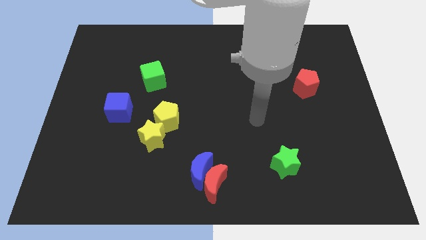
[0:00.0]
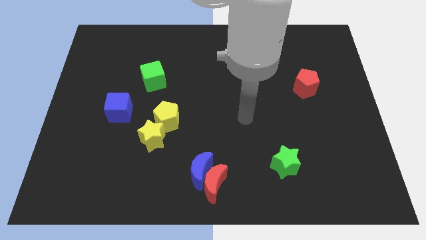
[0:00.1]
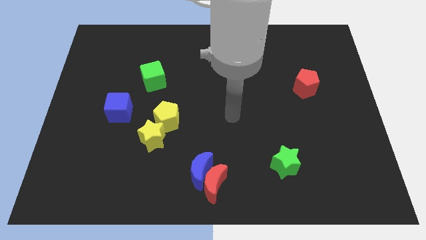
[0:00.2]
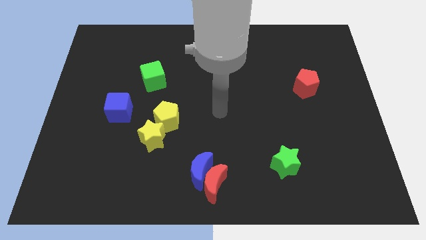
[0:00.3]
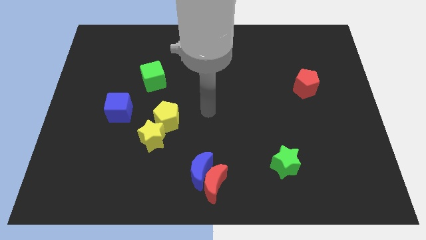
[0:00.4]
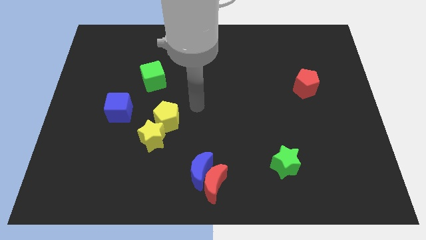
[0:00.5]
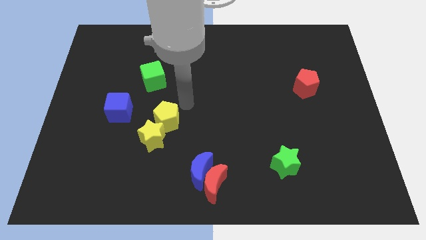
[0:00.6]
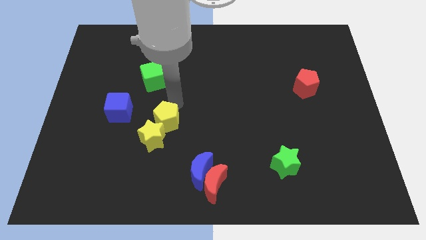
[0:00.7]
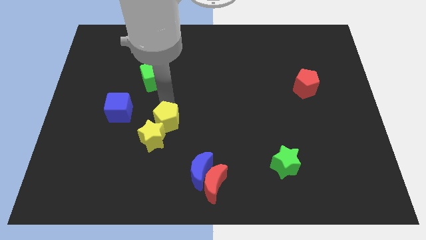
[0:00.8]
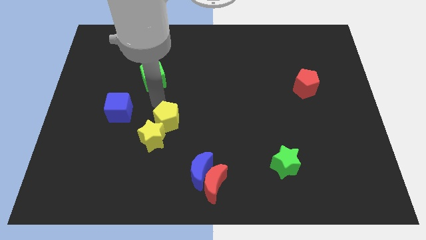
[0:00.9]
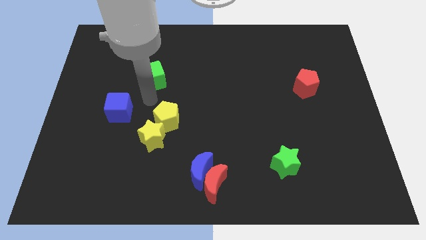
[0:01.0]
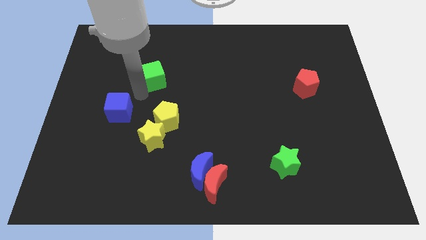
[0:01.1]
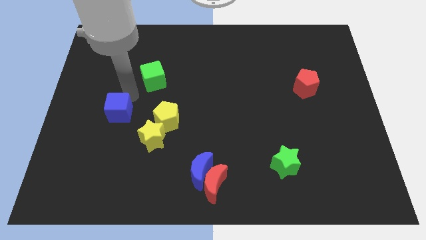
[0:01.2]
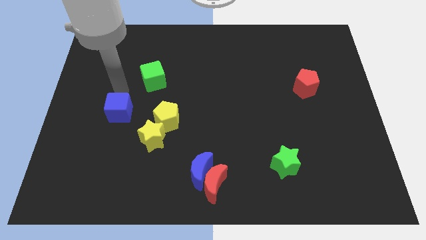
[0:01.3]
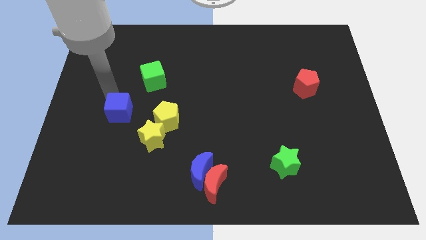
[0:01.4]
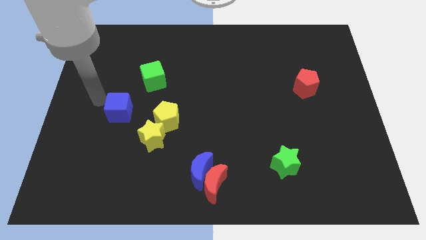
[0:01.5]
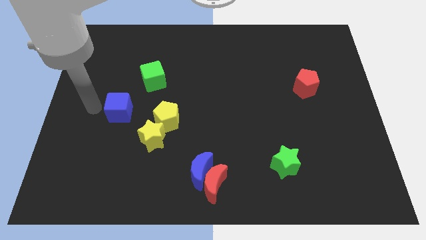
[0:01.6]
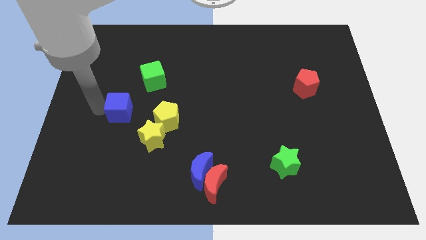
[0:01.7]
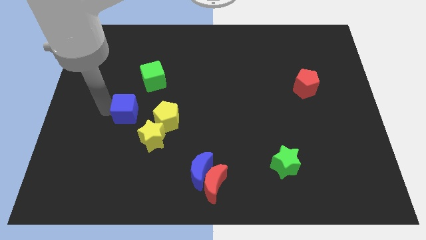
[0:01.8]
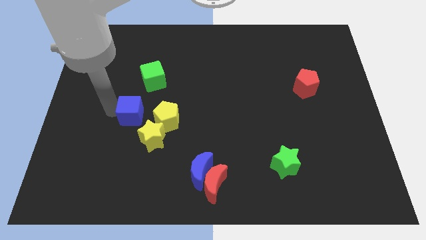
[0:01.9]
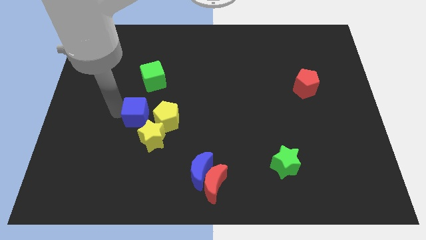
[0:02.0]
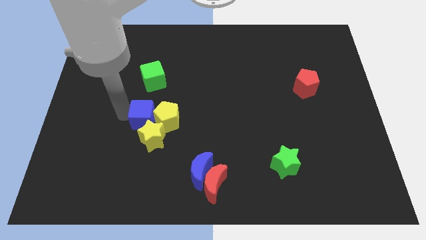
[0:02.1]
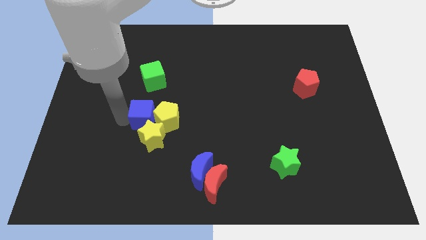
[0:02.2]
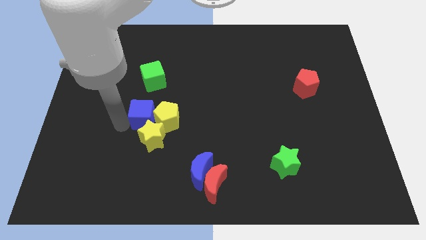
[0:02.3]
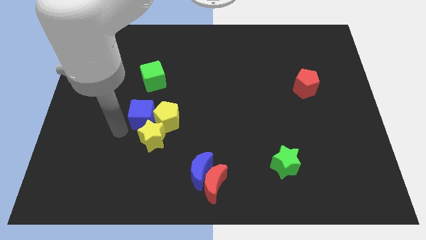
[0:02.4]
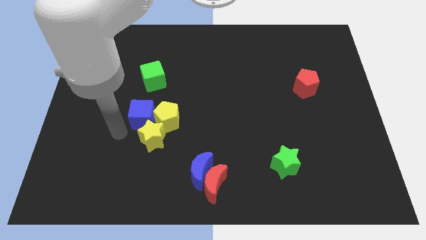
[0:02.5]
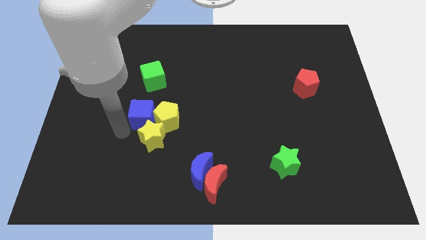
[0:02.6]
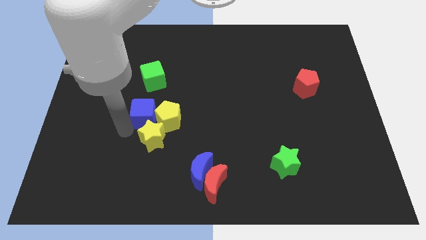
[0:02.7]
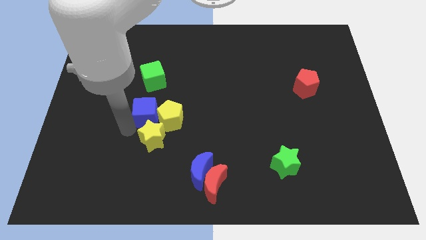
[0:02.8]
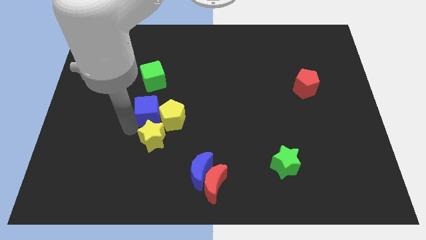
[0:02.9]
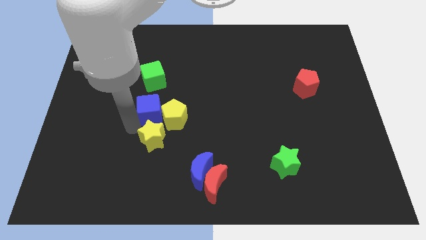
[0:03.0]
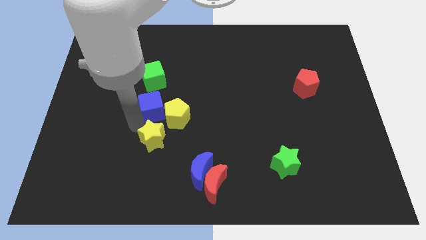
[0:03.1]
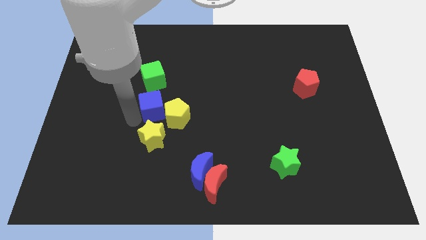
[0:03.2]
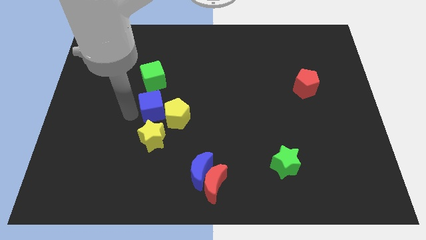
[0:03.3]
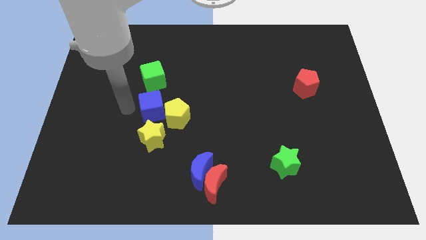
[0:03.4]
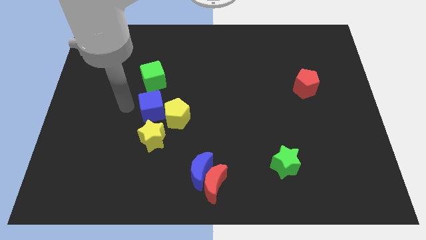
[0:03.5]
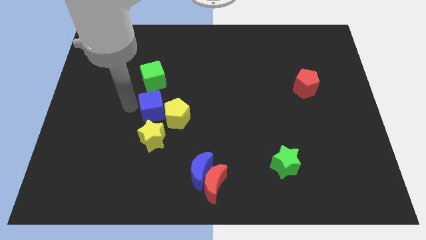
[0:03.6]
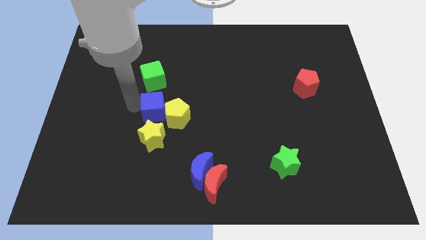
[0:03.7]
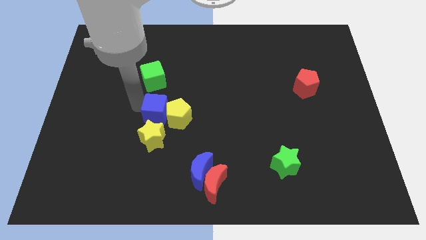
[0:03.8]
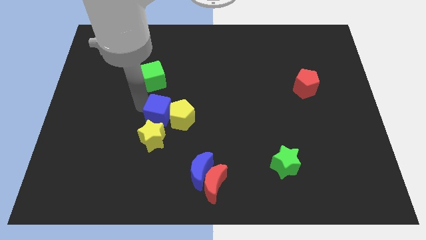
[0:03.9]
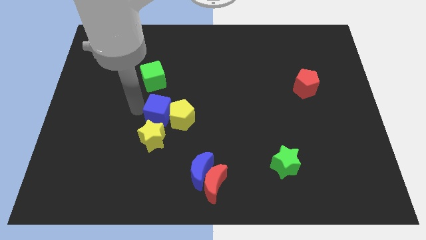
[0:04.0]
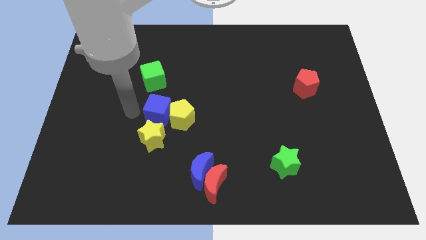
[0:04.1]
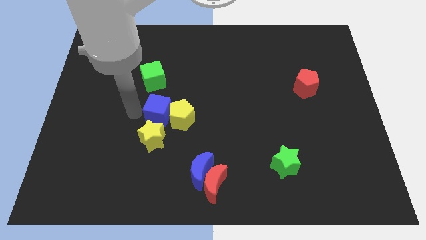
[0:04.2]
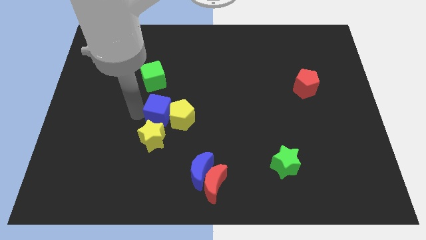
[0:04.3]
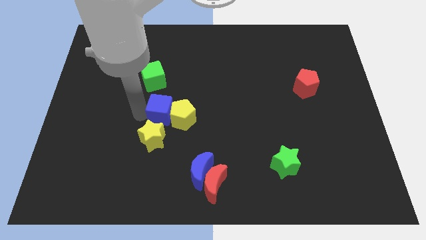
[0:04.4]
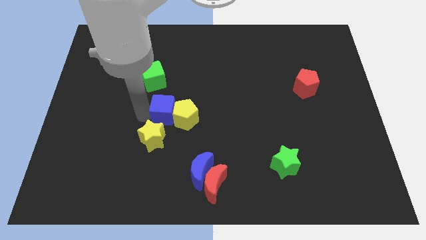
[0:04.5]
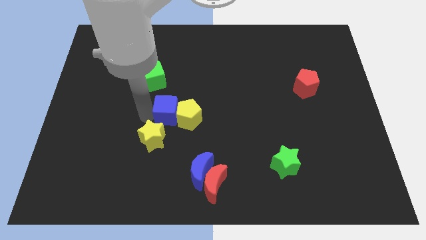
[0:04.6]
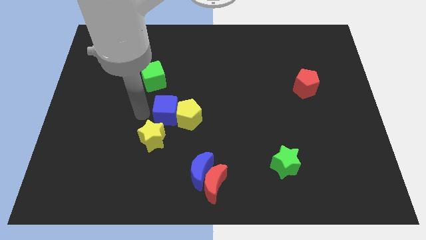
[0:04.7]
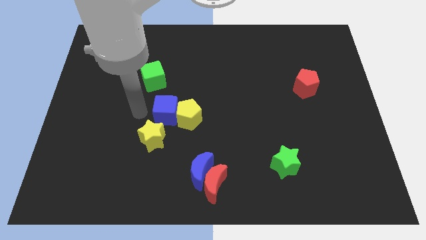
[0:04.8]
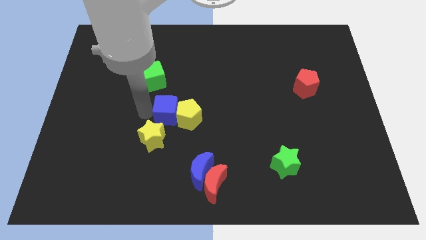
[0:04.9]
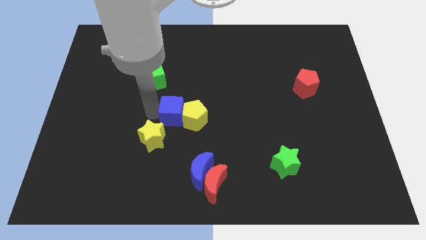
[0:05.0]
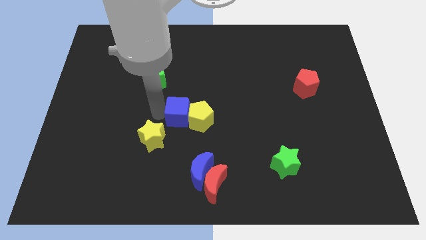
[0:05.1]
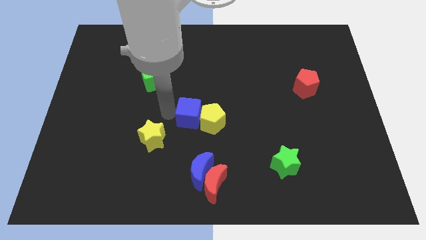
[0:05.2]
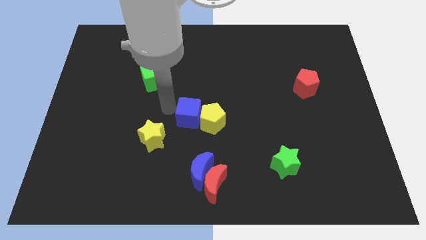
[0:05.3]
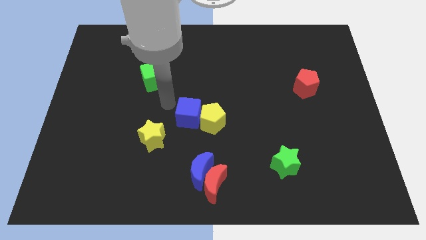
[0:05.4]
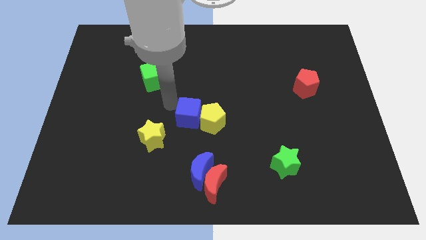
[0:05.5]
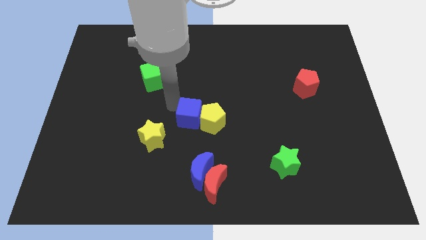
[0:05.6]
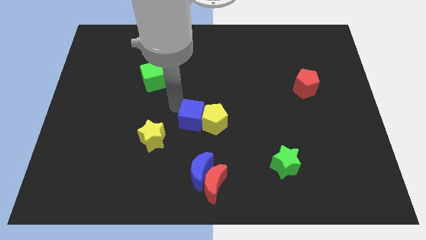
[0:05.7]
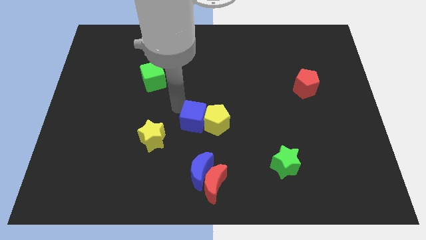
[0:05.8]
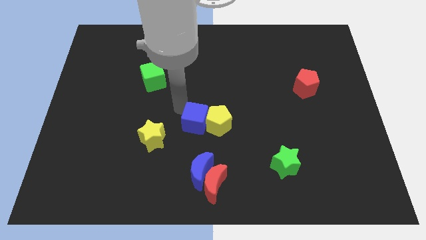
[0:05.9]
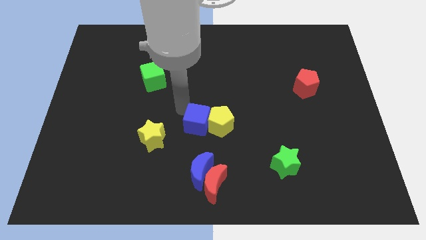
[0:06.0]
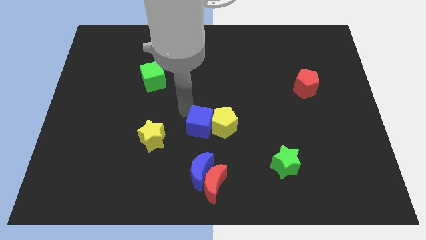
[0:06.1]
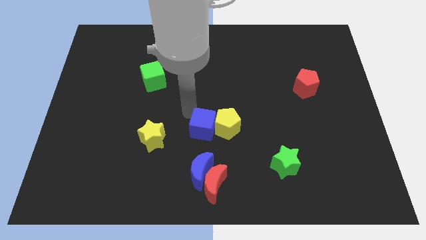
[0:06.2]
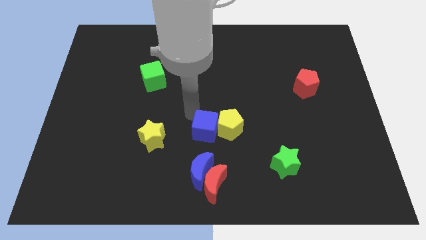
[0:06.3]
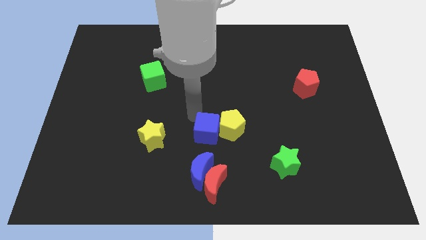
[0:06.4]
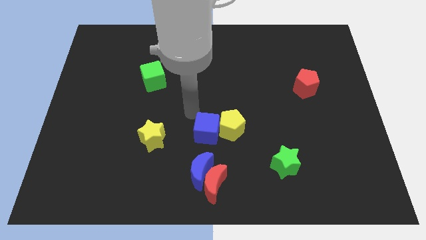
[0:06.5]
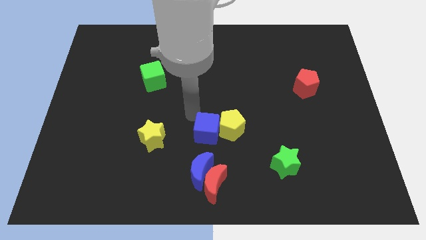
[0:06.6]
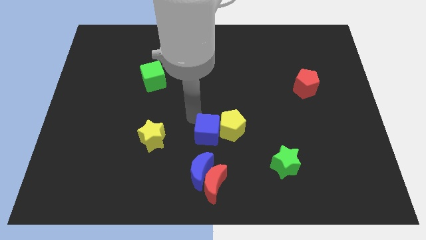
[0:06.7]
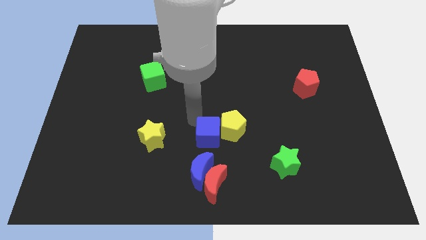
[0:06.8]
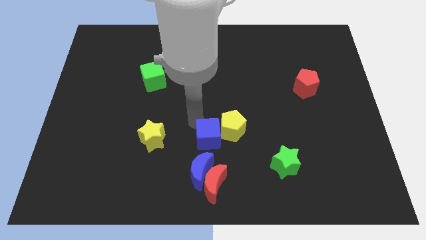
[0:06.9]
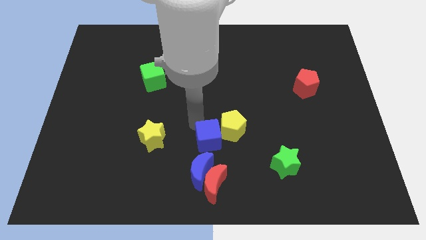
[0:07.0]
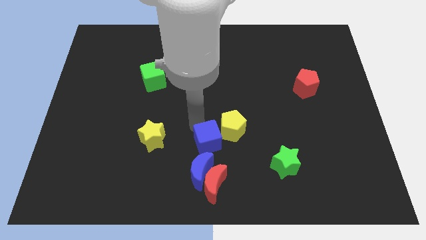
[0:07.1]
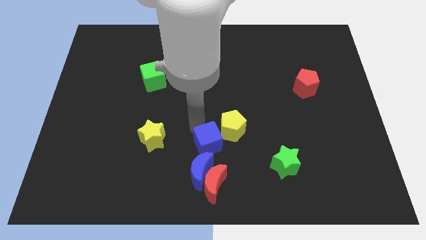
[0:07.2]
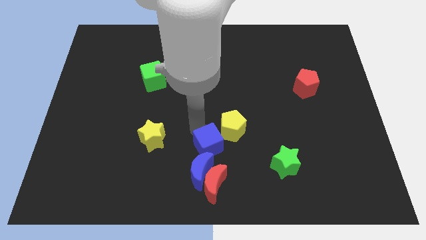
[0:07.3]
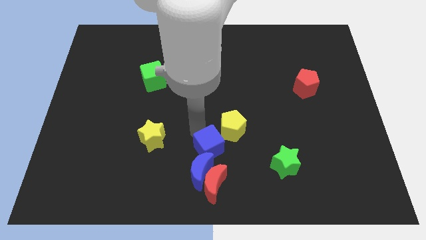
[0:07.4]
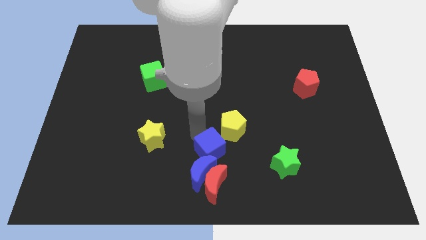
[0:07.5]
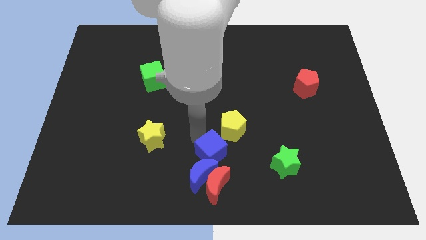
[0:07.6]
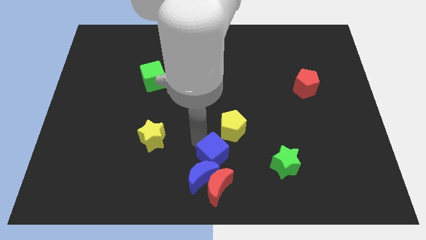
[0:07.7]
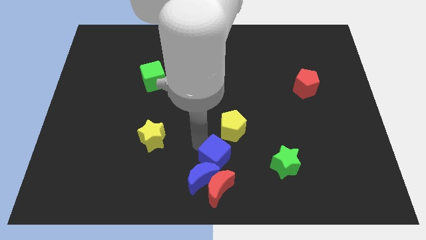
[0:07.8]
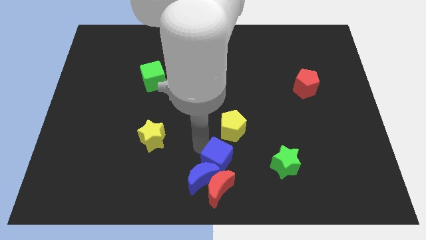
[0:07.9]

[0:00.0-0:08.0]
move the blue cube to the top right of the red moon
